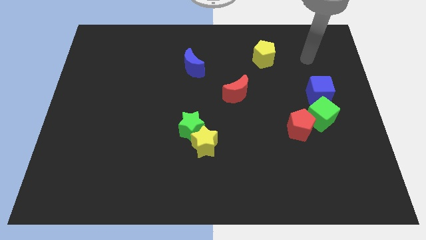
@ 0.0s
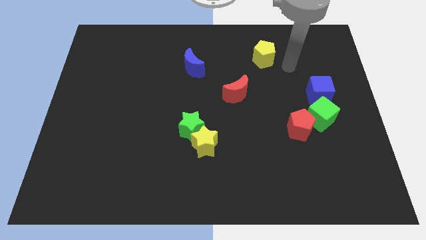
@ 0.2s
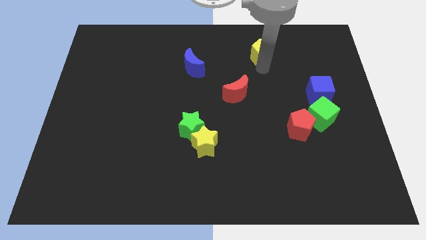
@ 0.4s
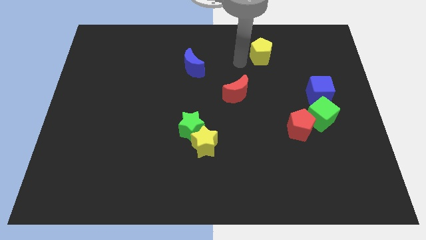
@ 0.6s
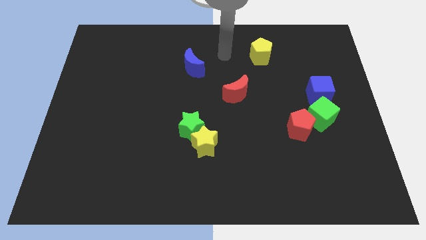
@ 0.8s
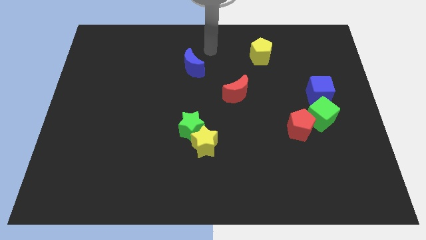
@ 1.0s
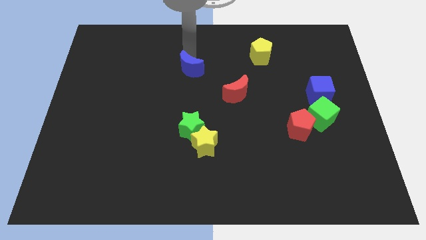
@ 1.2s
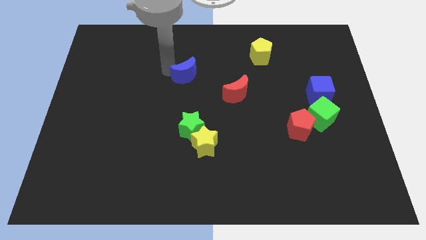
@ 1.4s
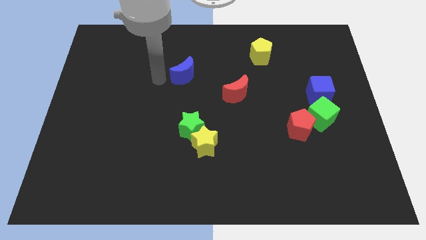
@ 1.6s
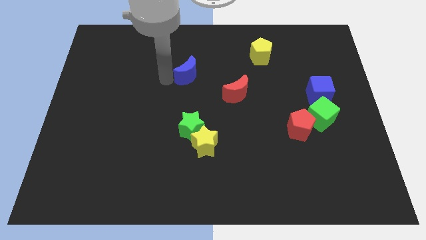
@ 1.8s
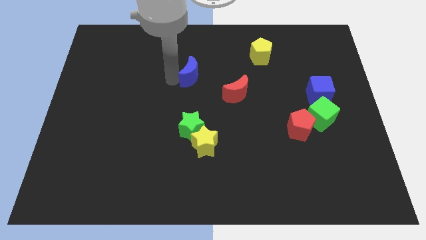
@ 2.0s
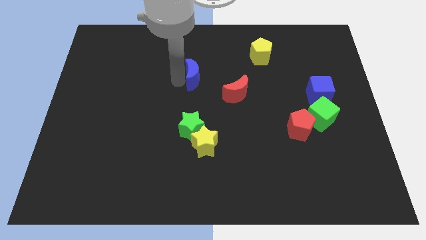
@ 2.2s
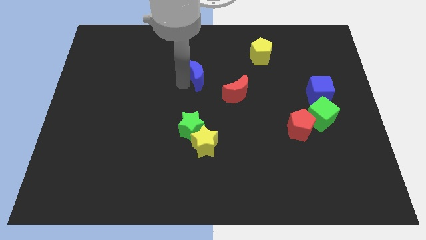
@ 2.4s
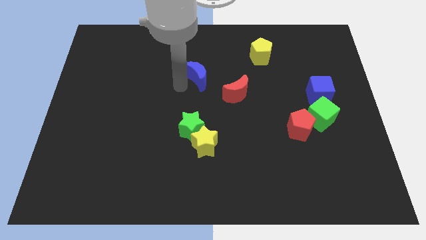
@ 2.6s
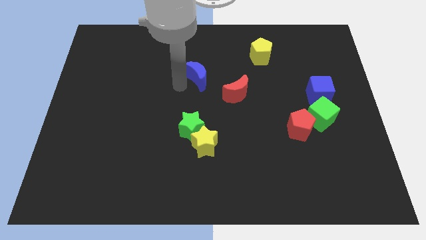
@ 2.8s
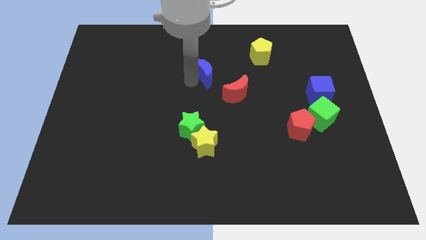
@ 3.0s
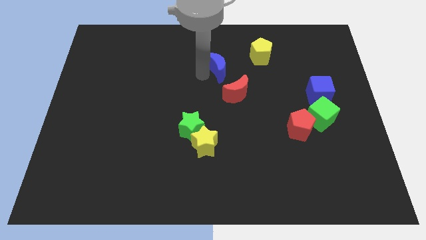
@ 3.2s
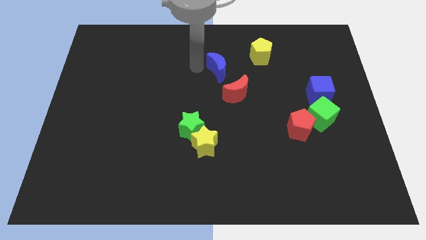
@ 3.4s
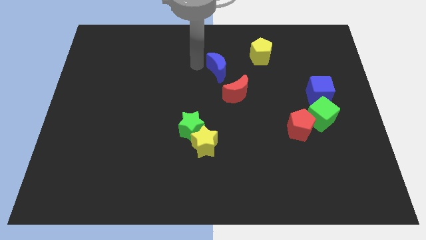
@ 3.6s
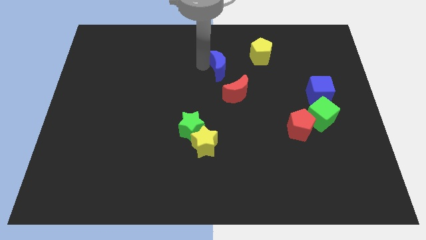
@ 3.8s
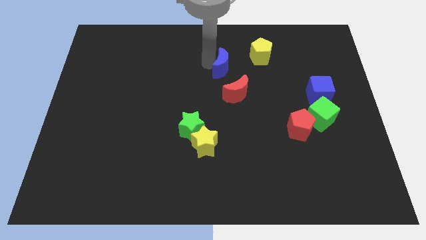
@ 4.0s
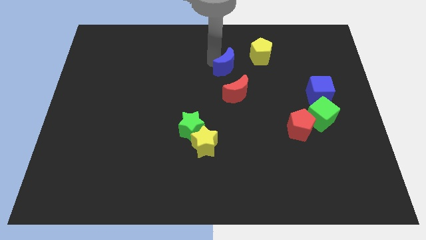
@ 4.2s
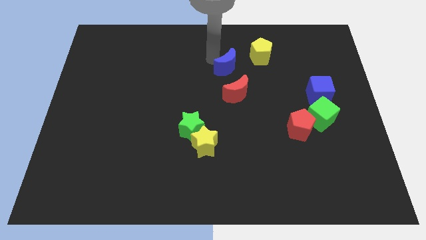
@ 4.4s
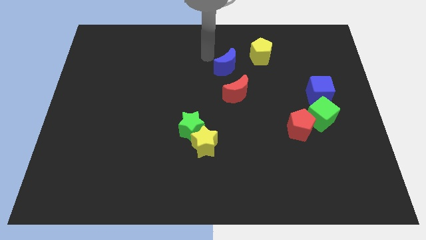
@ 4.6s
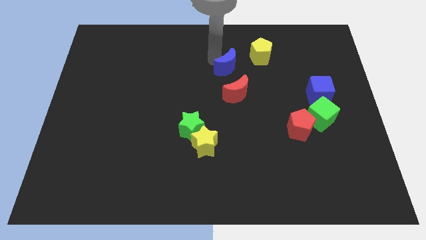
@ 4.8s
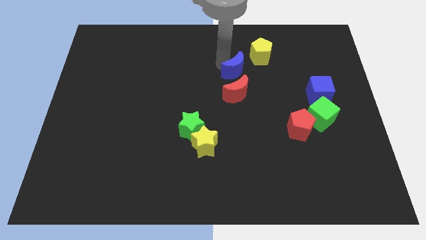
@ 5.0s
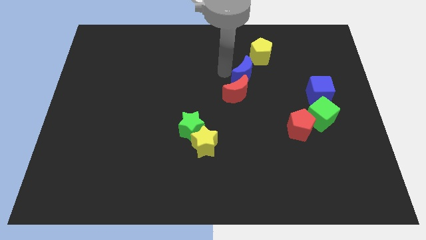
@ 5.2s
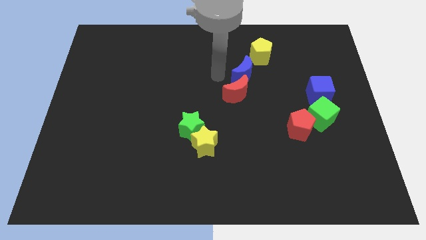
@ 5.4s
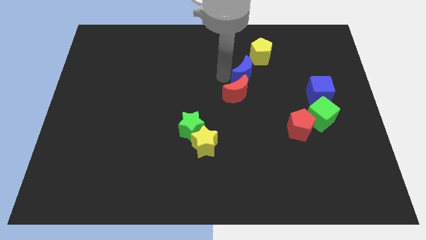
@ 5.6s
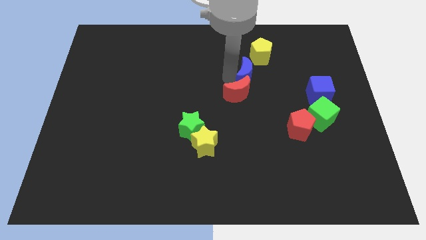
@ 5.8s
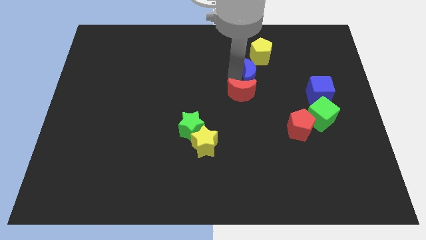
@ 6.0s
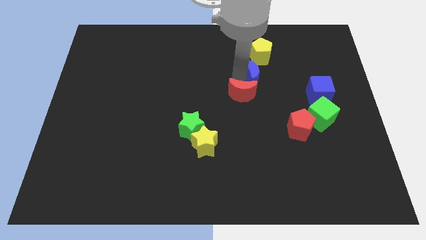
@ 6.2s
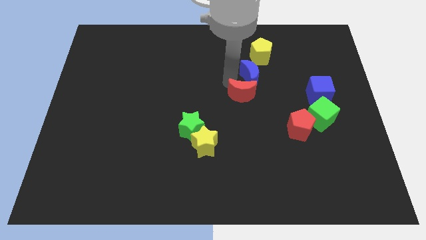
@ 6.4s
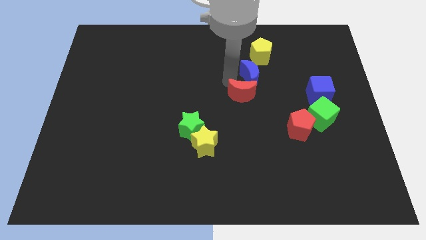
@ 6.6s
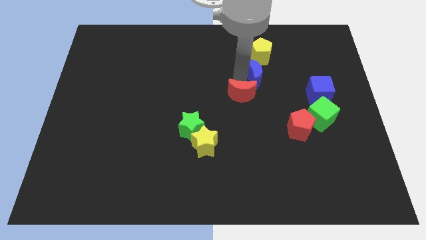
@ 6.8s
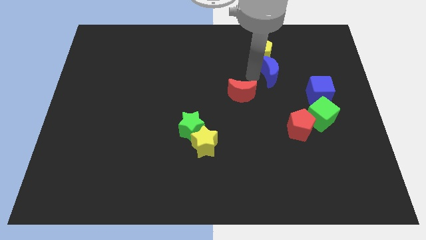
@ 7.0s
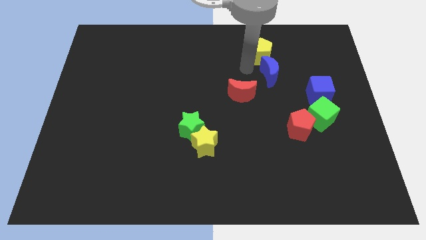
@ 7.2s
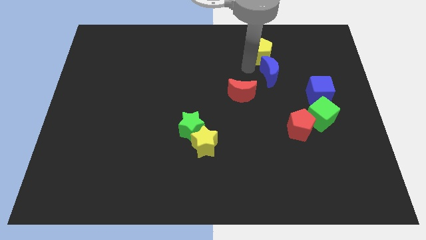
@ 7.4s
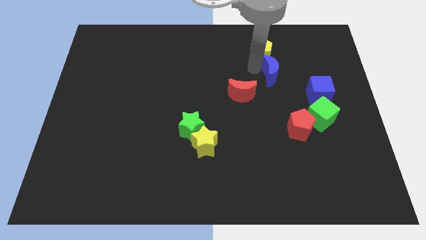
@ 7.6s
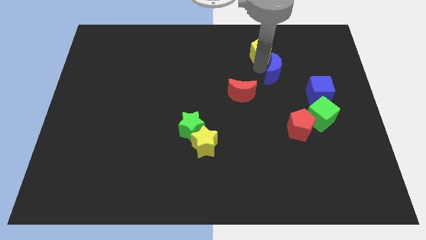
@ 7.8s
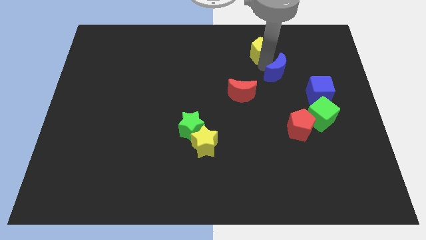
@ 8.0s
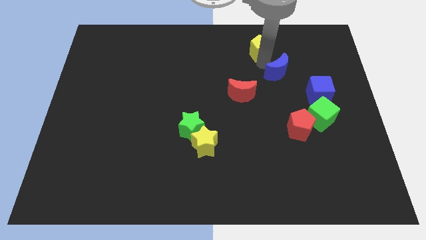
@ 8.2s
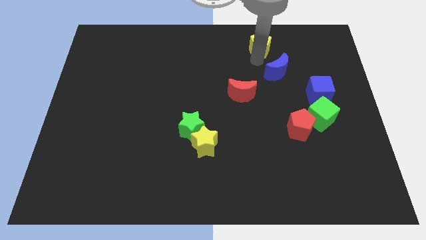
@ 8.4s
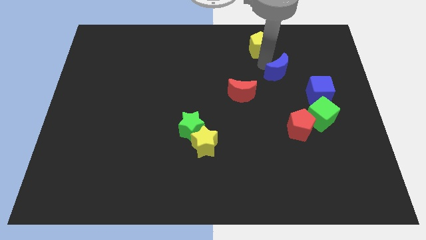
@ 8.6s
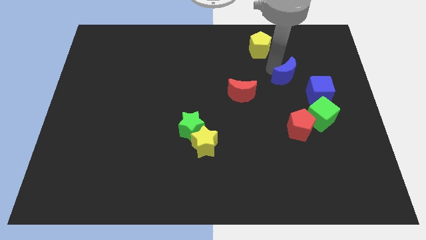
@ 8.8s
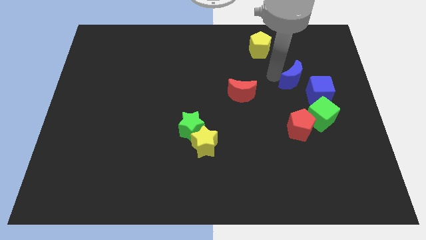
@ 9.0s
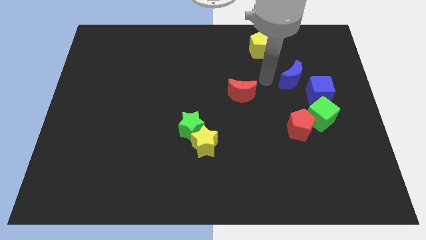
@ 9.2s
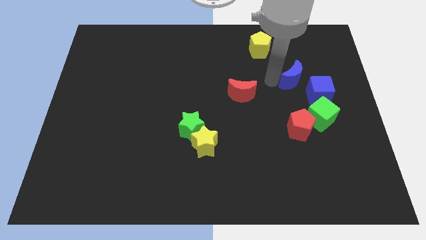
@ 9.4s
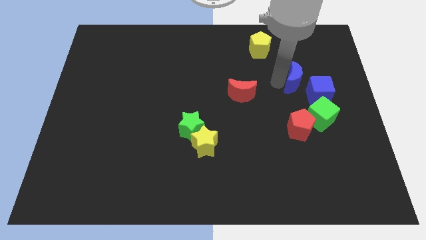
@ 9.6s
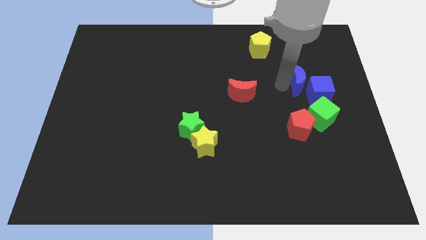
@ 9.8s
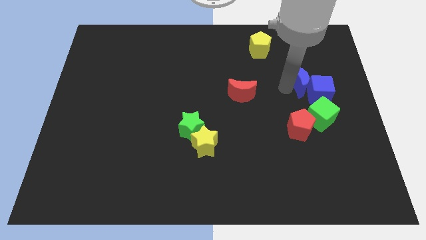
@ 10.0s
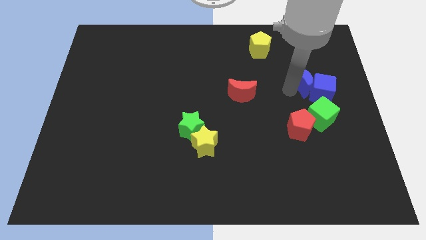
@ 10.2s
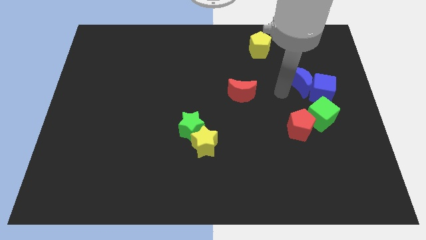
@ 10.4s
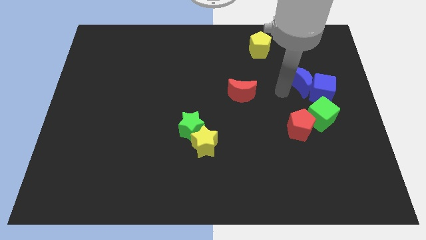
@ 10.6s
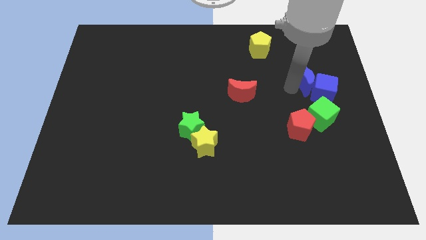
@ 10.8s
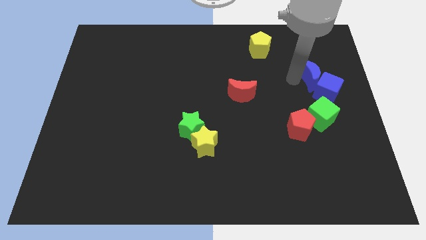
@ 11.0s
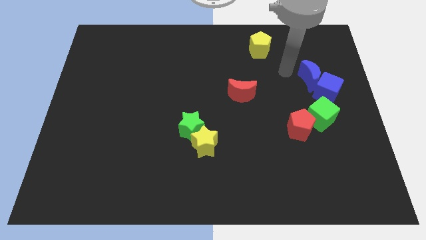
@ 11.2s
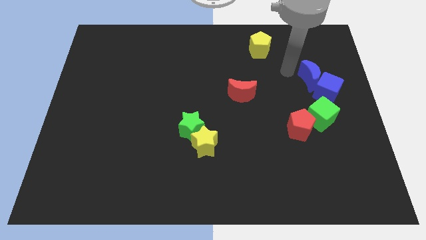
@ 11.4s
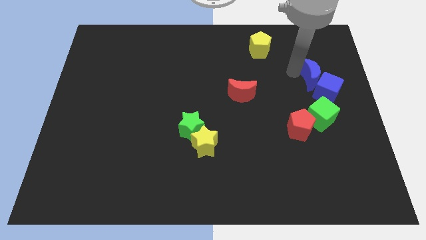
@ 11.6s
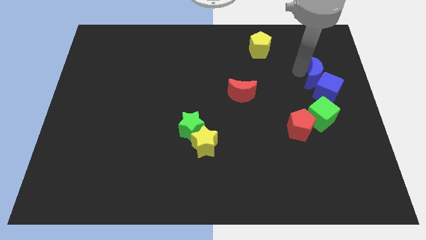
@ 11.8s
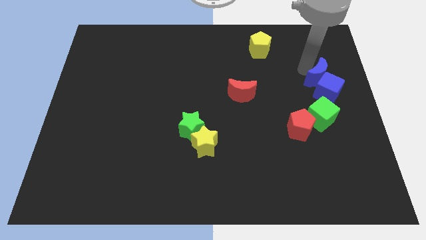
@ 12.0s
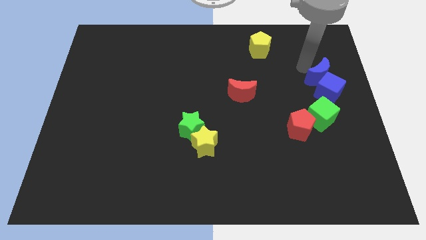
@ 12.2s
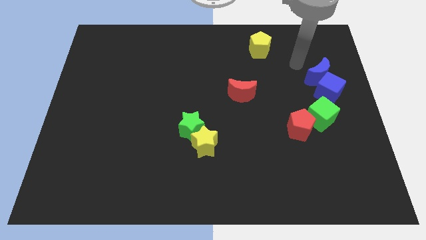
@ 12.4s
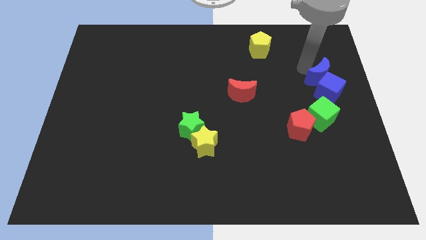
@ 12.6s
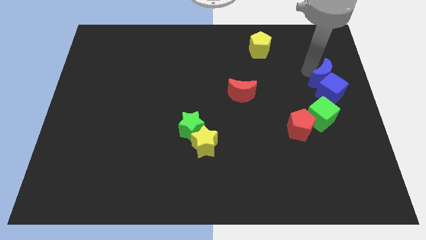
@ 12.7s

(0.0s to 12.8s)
push the blue moon to the center right
